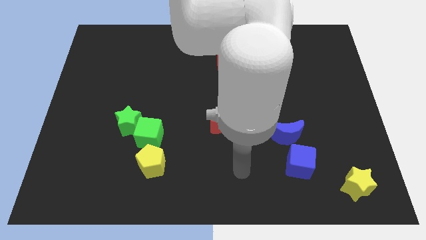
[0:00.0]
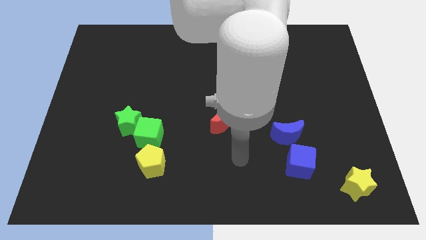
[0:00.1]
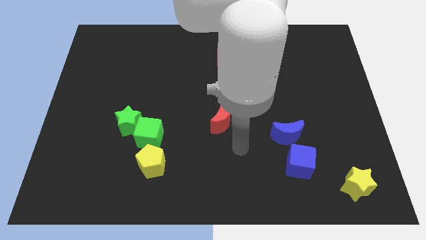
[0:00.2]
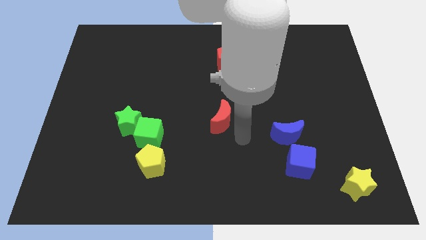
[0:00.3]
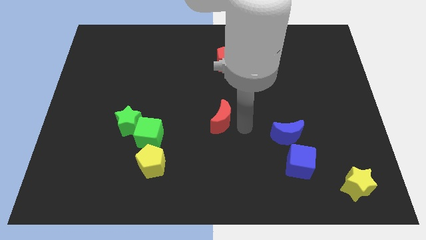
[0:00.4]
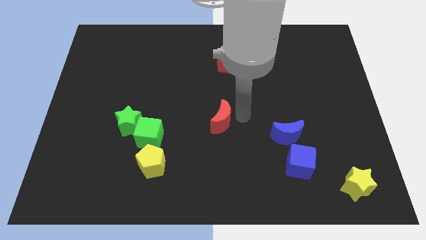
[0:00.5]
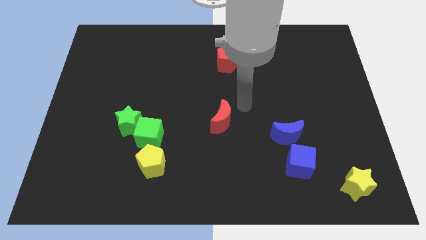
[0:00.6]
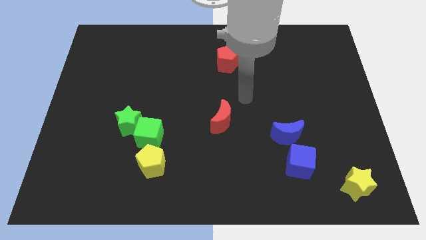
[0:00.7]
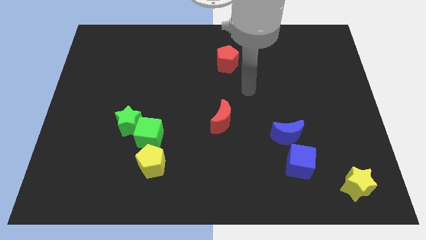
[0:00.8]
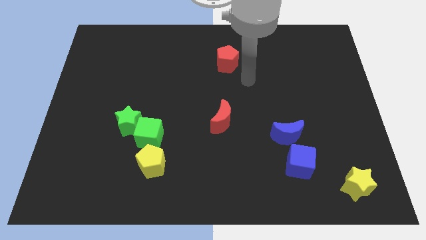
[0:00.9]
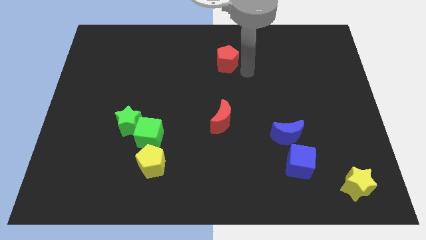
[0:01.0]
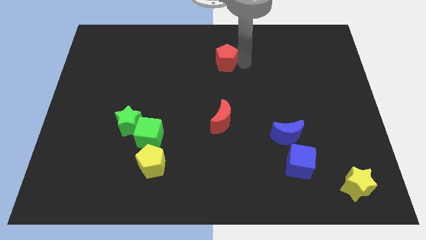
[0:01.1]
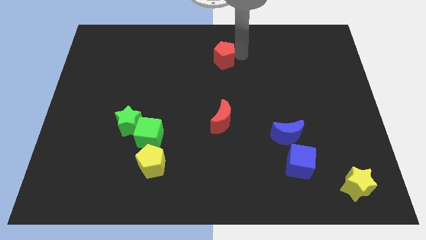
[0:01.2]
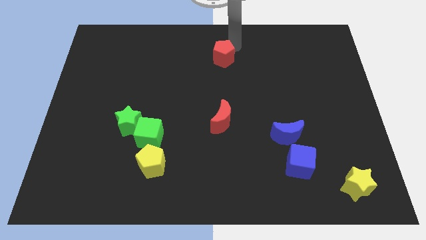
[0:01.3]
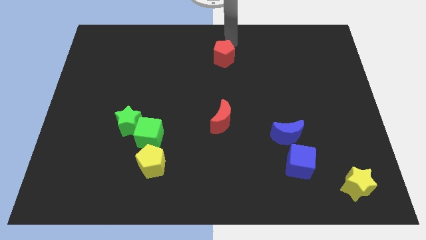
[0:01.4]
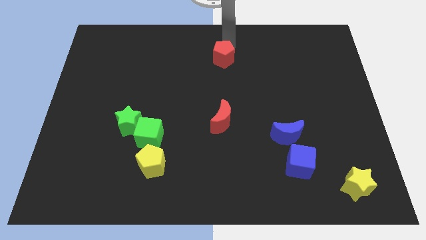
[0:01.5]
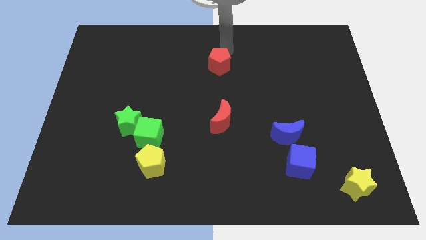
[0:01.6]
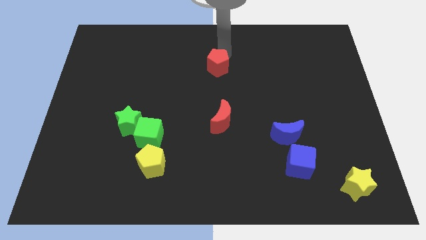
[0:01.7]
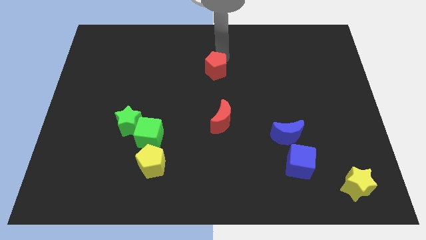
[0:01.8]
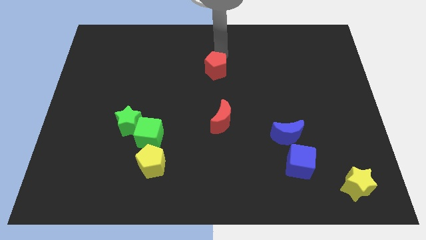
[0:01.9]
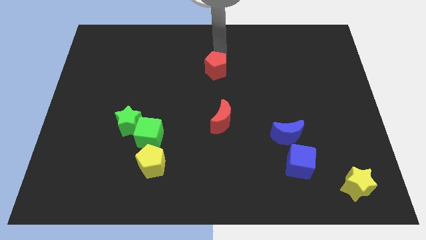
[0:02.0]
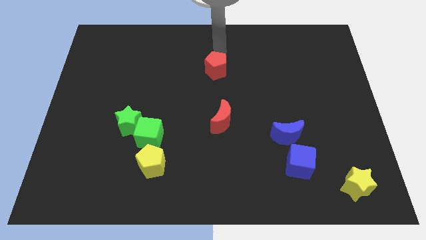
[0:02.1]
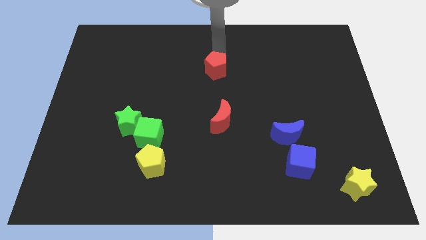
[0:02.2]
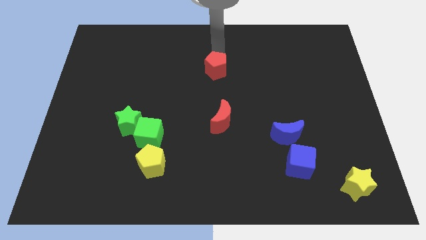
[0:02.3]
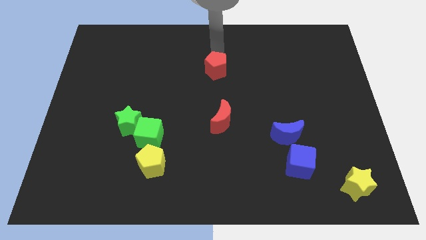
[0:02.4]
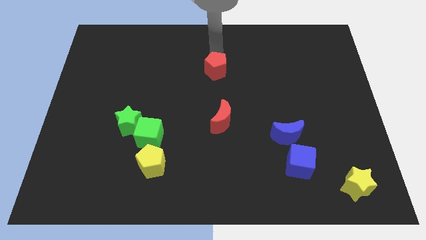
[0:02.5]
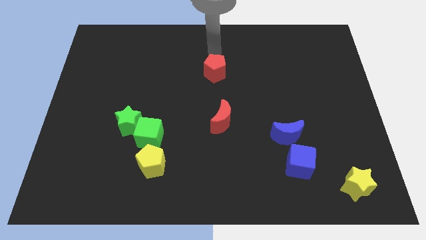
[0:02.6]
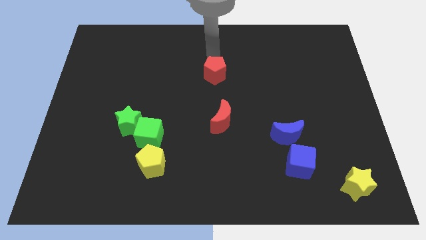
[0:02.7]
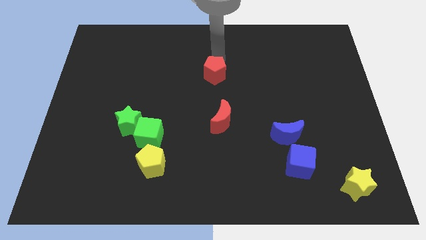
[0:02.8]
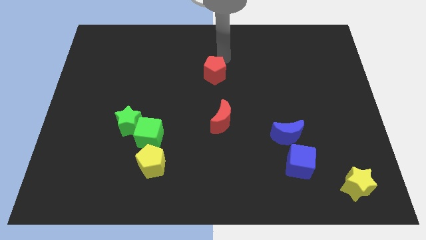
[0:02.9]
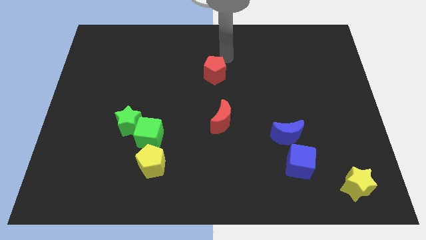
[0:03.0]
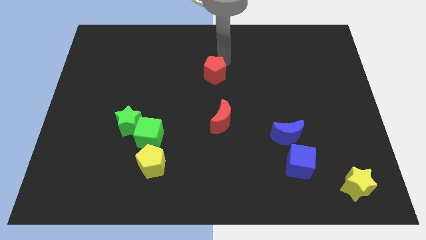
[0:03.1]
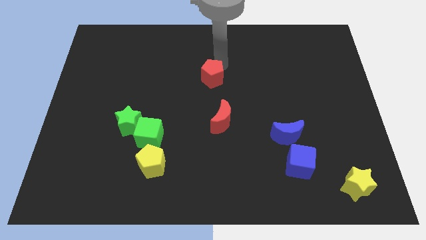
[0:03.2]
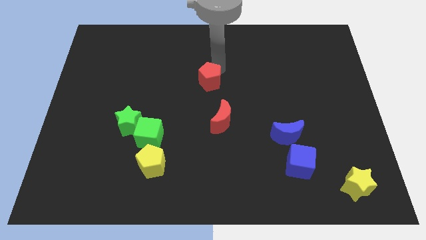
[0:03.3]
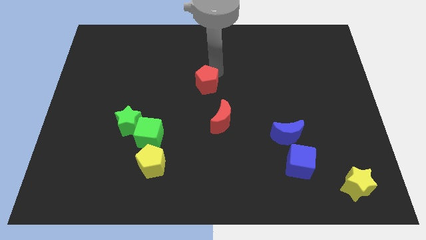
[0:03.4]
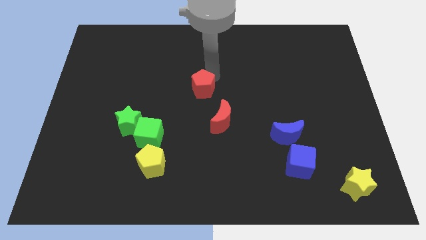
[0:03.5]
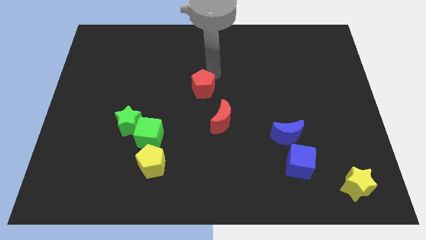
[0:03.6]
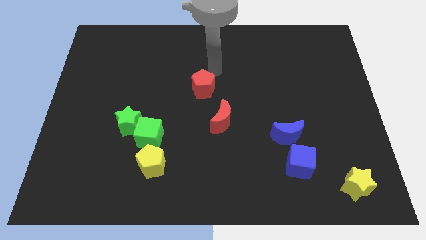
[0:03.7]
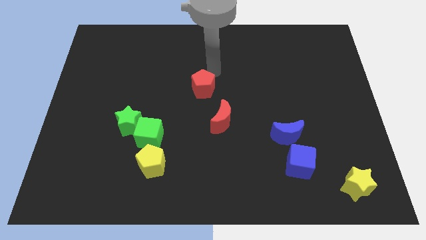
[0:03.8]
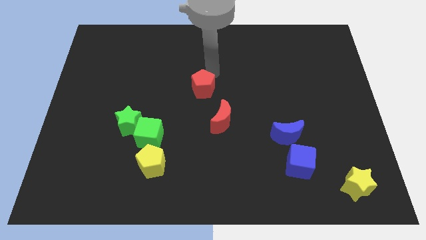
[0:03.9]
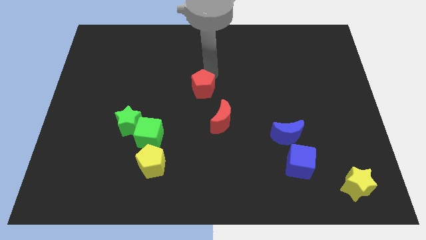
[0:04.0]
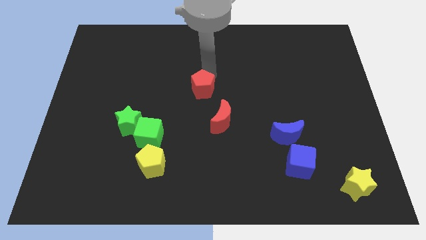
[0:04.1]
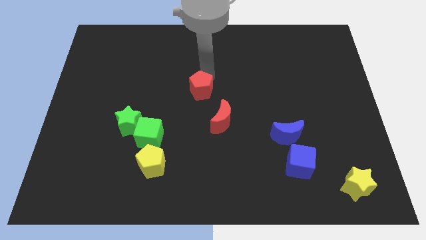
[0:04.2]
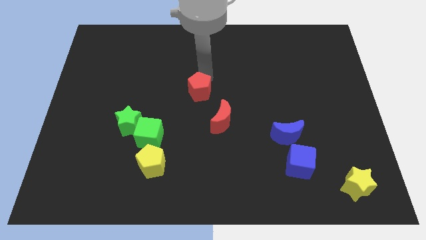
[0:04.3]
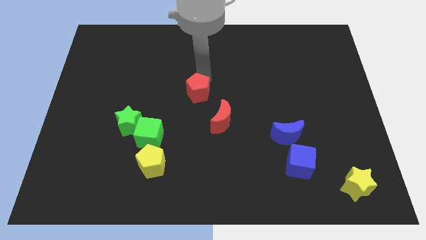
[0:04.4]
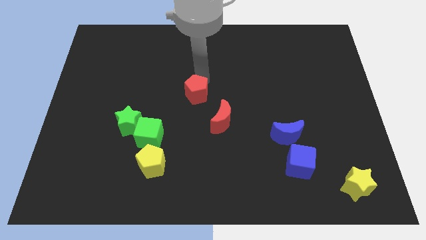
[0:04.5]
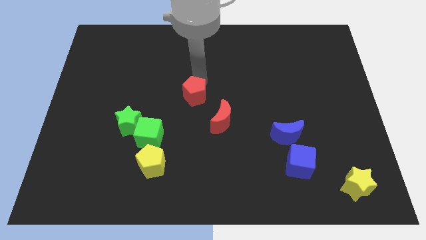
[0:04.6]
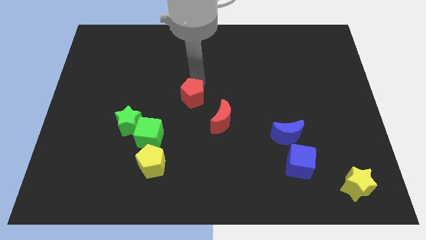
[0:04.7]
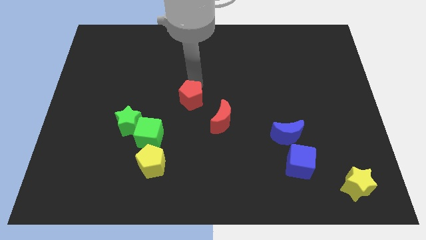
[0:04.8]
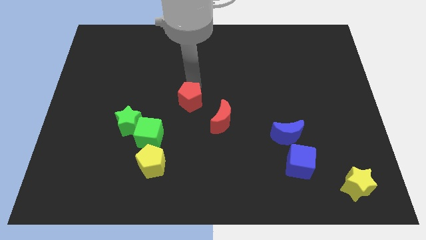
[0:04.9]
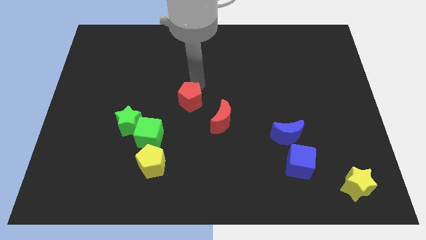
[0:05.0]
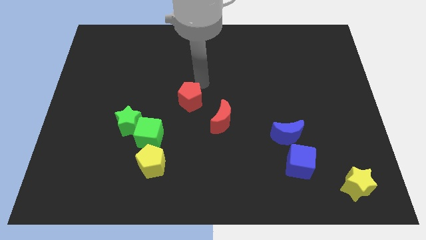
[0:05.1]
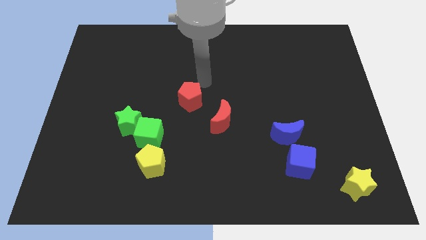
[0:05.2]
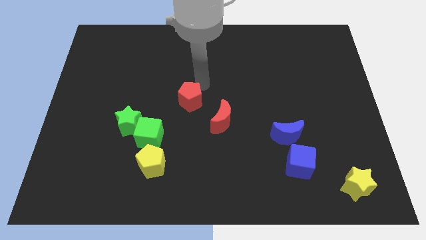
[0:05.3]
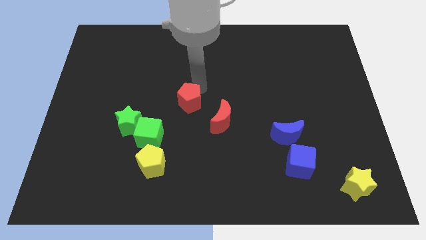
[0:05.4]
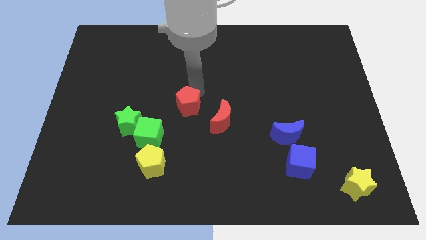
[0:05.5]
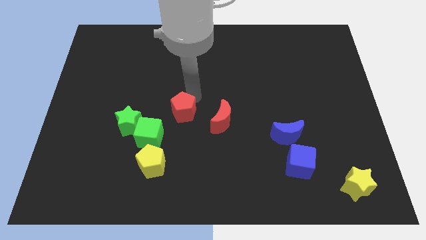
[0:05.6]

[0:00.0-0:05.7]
put the red pentagon to the right side of the green star

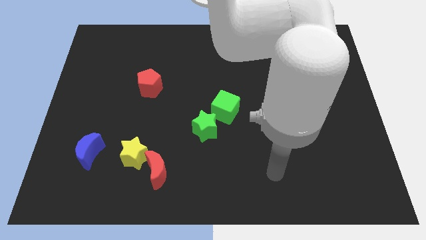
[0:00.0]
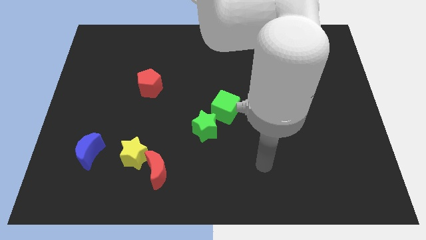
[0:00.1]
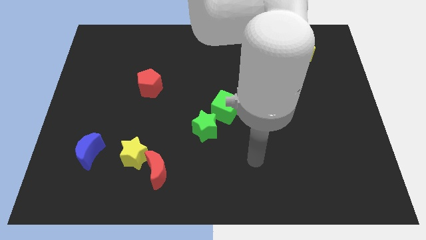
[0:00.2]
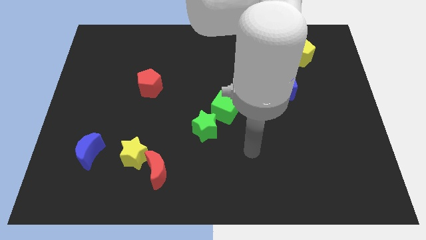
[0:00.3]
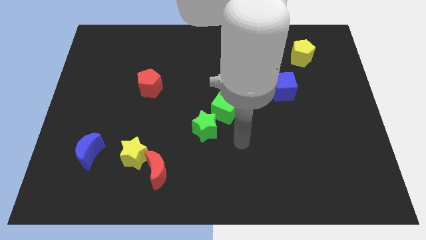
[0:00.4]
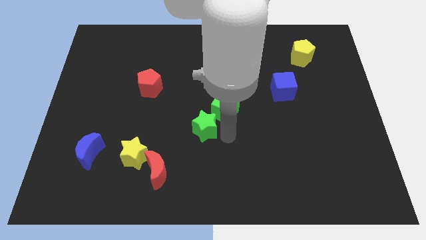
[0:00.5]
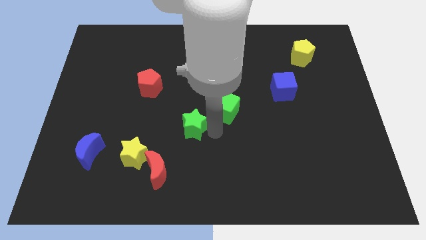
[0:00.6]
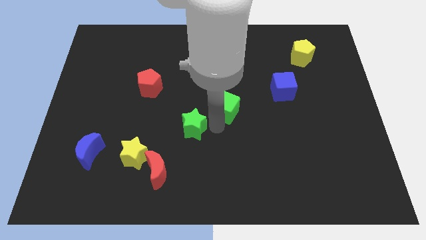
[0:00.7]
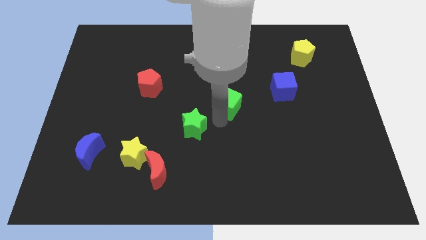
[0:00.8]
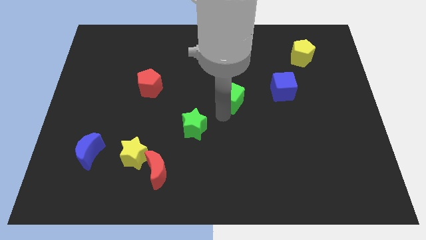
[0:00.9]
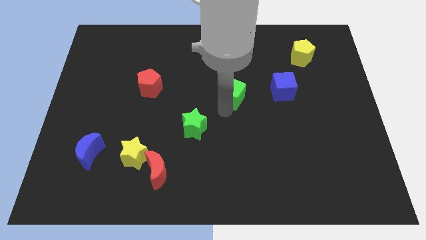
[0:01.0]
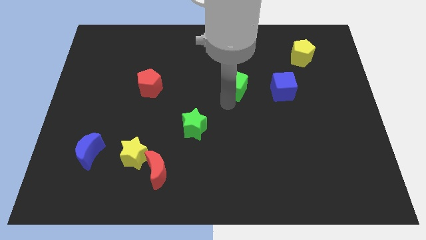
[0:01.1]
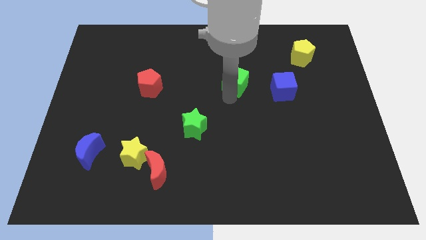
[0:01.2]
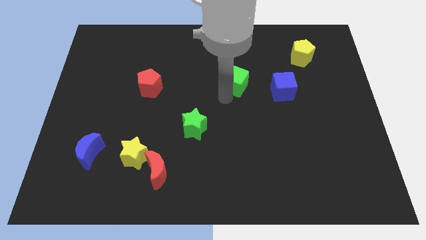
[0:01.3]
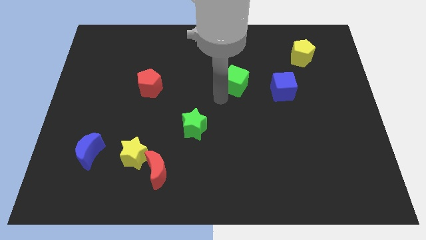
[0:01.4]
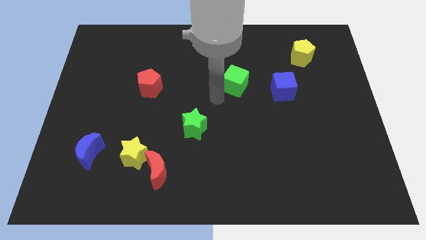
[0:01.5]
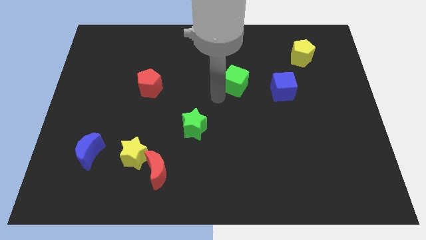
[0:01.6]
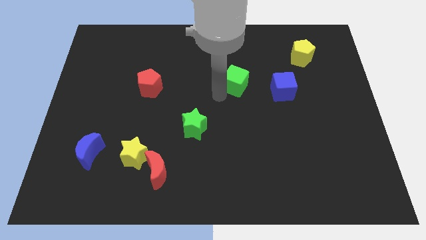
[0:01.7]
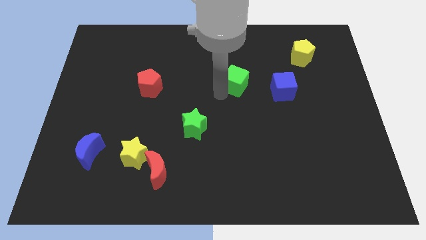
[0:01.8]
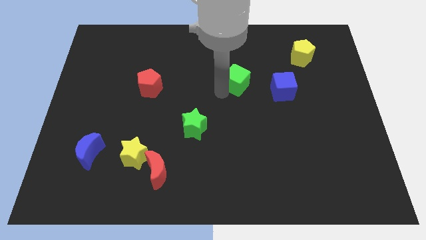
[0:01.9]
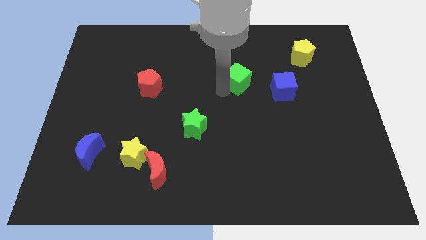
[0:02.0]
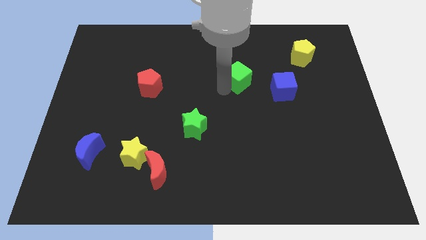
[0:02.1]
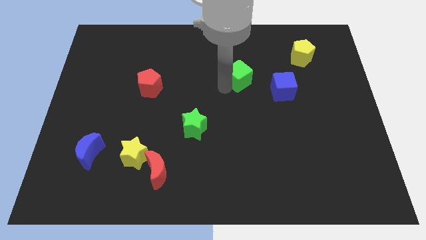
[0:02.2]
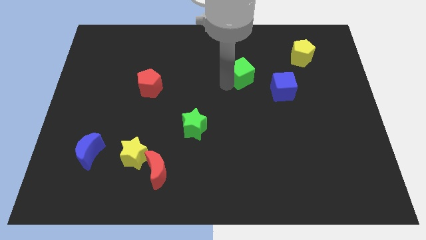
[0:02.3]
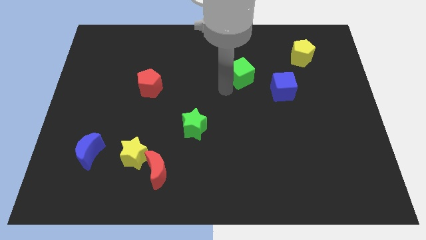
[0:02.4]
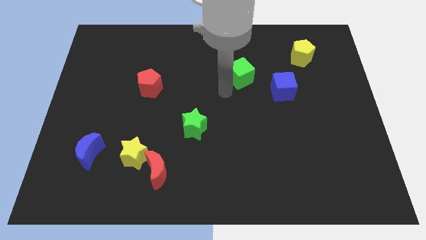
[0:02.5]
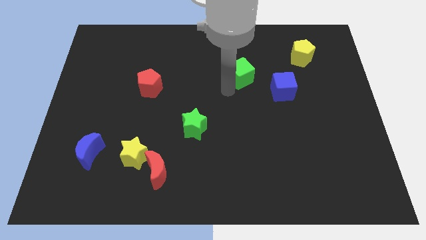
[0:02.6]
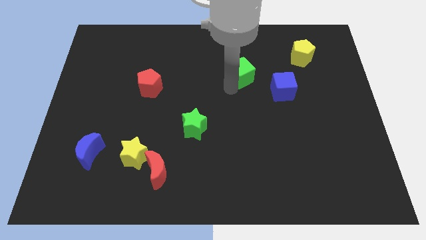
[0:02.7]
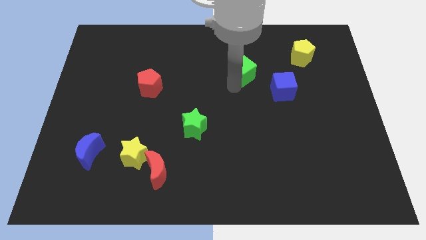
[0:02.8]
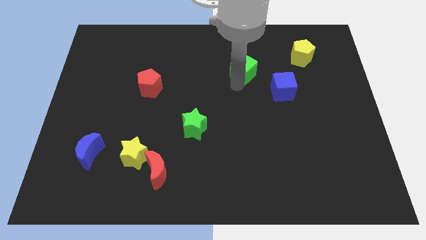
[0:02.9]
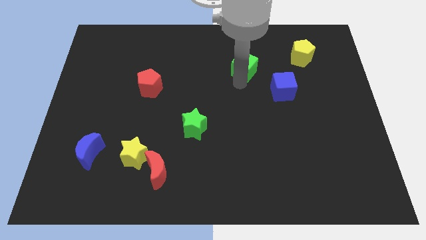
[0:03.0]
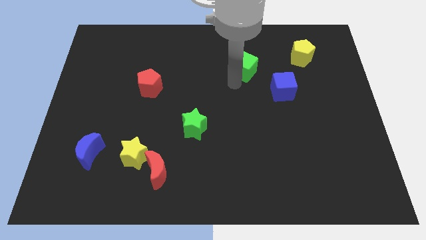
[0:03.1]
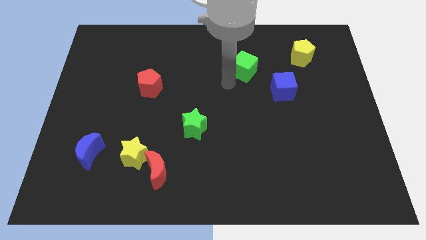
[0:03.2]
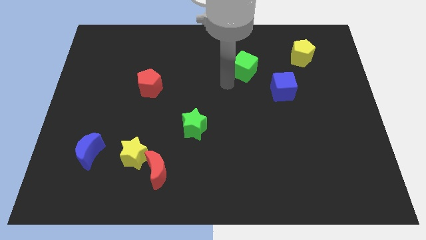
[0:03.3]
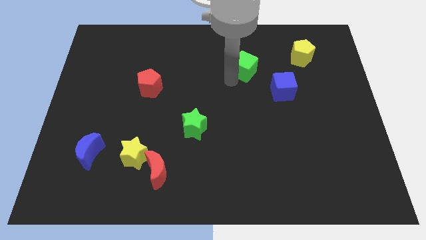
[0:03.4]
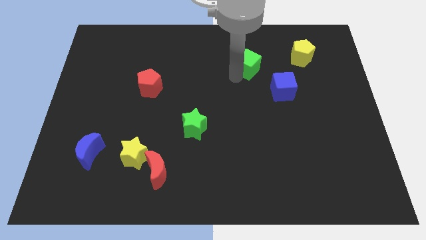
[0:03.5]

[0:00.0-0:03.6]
push the green cube left of the yellow pentagon
